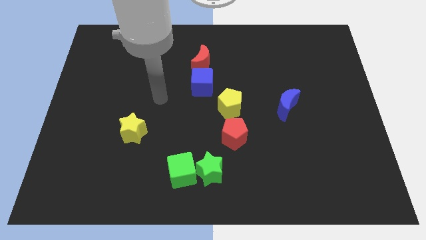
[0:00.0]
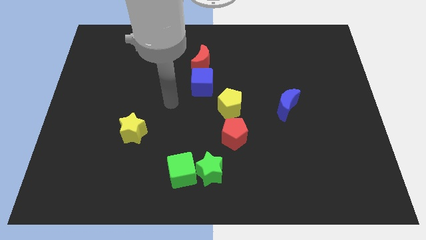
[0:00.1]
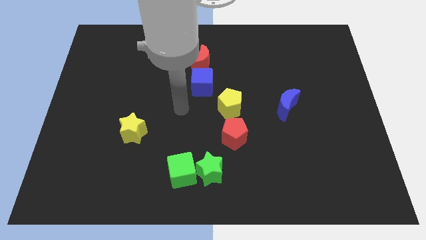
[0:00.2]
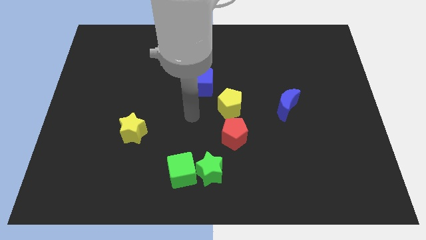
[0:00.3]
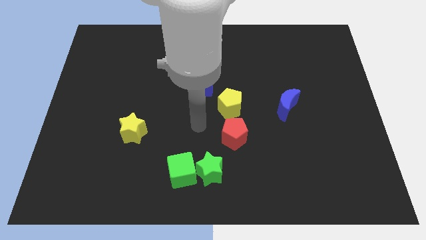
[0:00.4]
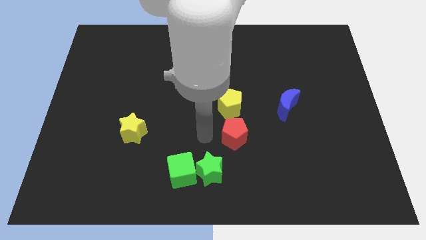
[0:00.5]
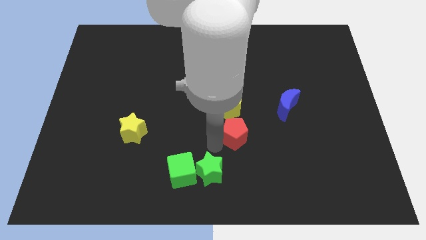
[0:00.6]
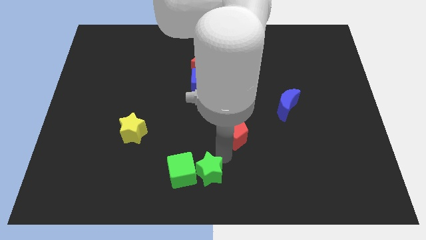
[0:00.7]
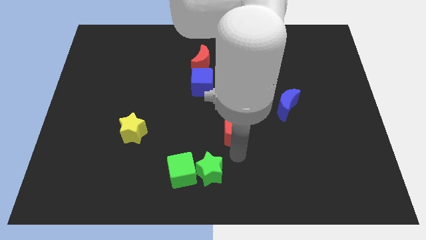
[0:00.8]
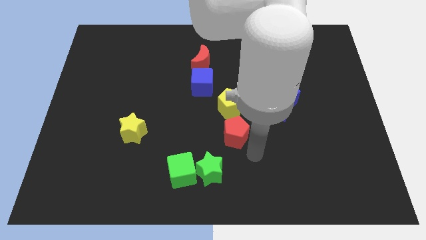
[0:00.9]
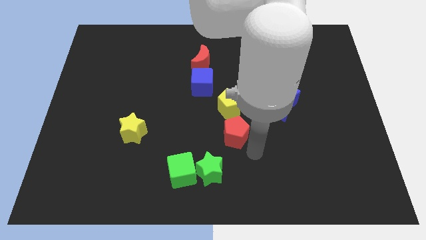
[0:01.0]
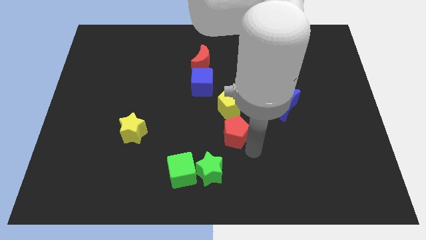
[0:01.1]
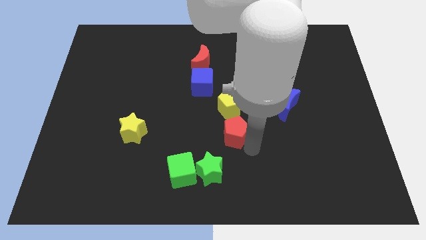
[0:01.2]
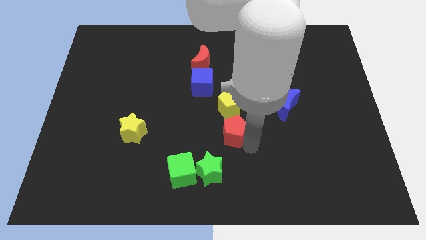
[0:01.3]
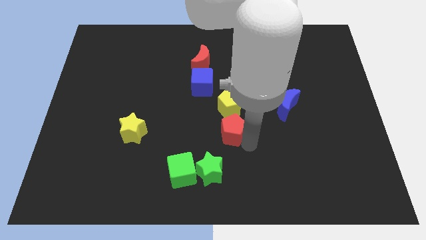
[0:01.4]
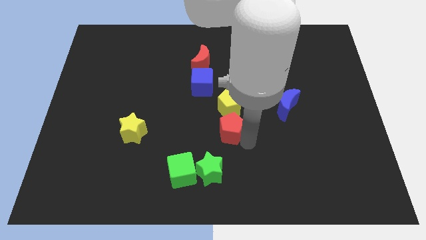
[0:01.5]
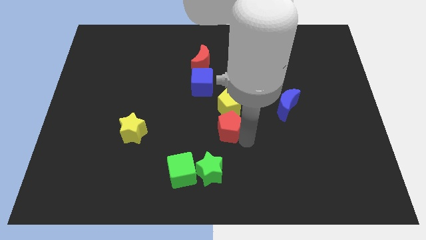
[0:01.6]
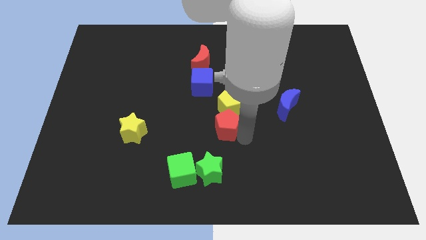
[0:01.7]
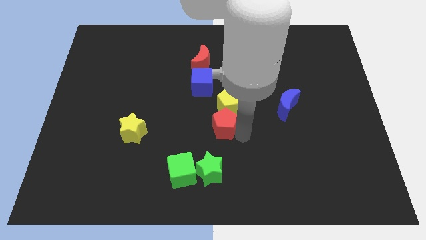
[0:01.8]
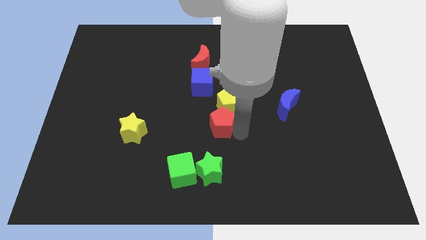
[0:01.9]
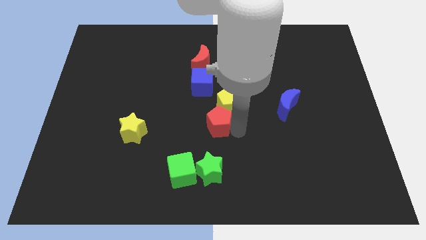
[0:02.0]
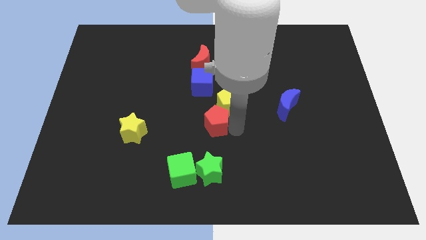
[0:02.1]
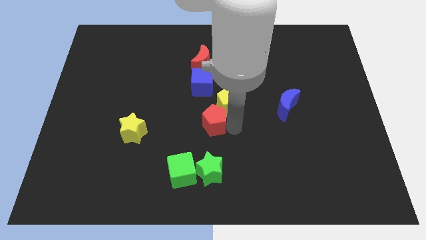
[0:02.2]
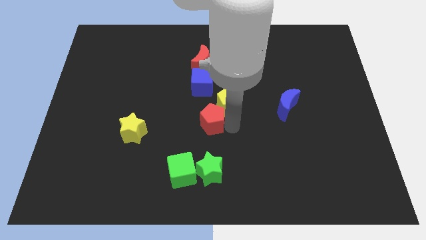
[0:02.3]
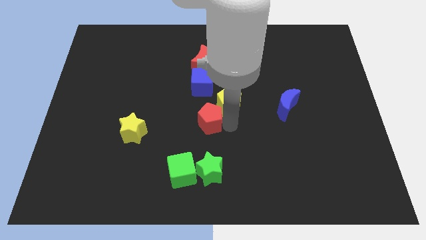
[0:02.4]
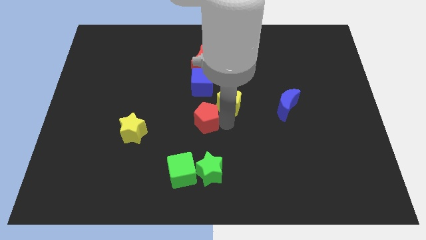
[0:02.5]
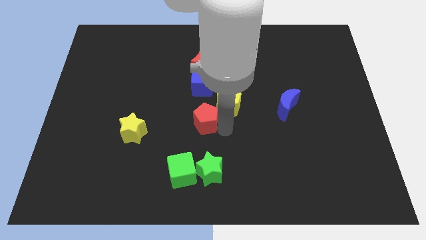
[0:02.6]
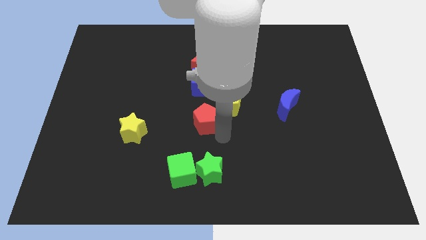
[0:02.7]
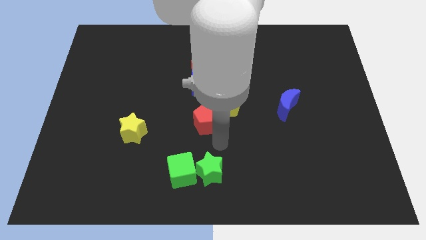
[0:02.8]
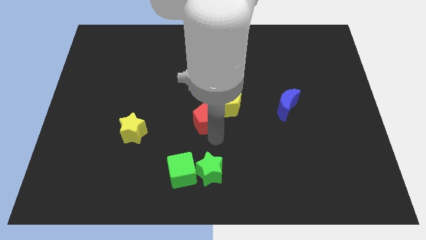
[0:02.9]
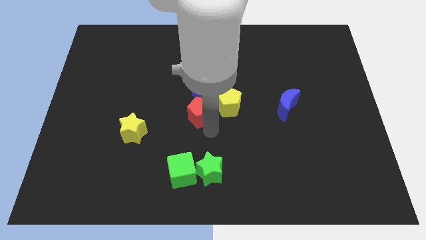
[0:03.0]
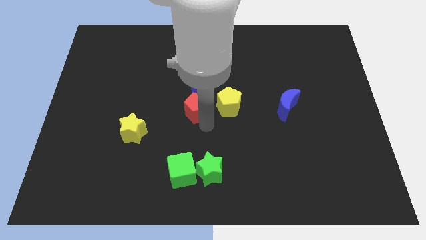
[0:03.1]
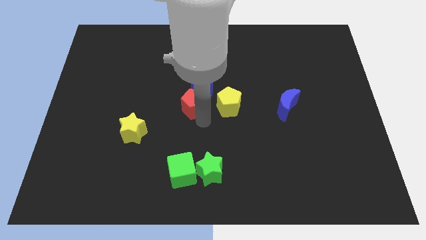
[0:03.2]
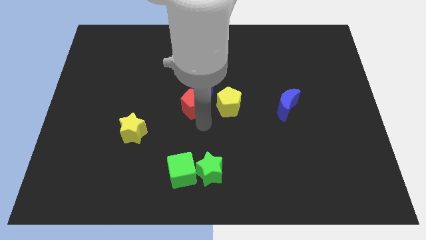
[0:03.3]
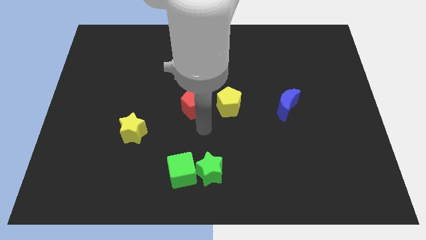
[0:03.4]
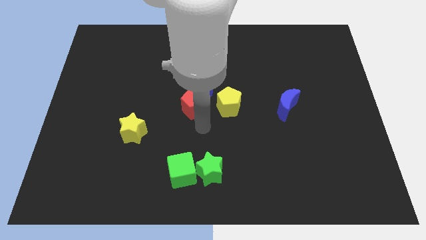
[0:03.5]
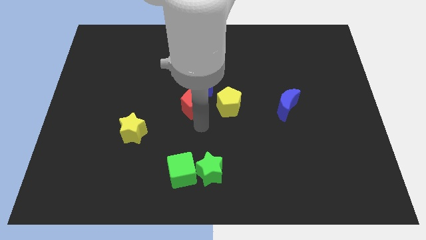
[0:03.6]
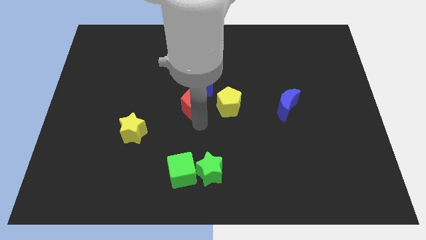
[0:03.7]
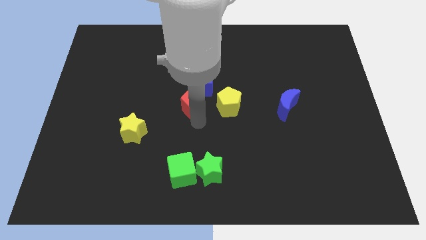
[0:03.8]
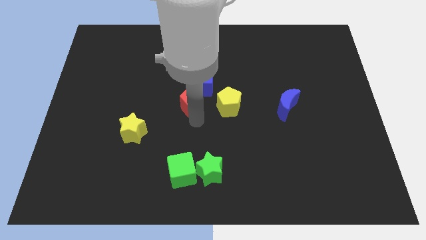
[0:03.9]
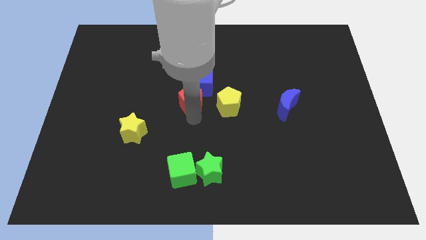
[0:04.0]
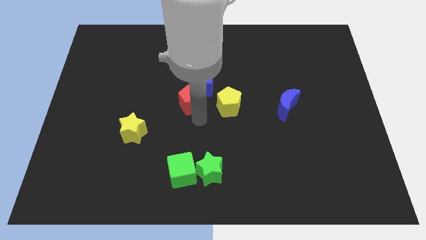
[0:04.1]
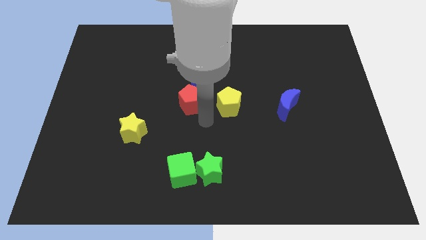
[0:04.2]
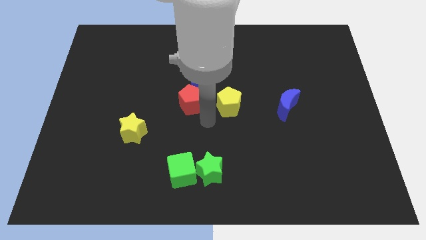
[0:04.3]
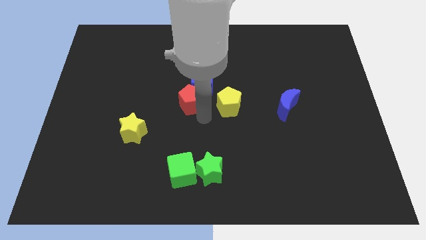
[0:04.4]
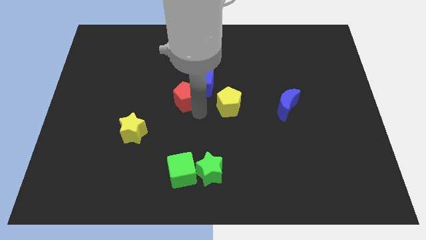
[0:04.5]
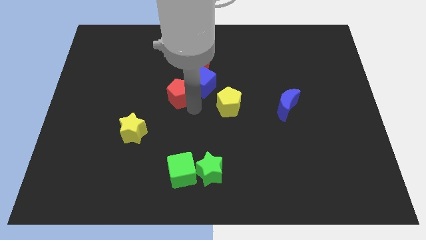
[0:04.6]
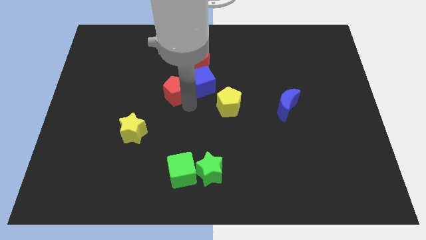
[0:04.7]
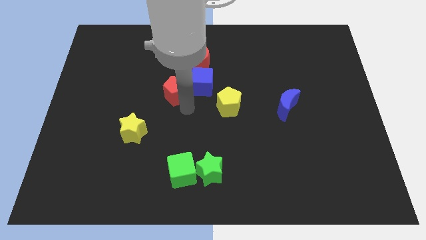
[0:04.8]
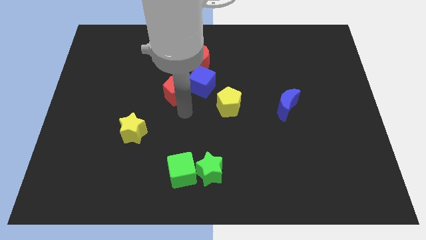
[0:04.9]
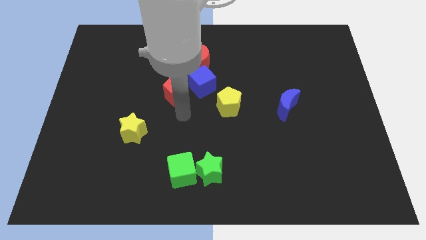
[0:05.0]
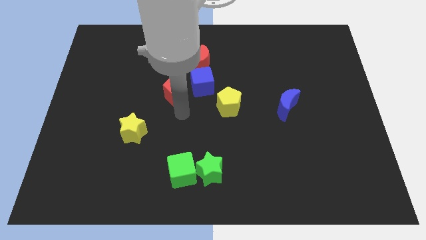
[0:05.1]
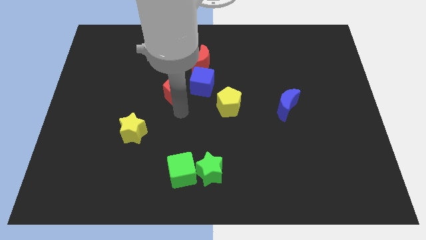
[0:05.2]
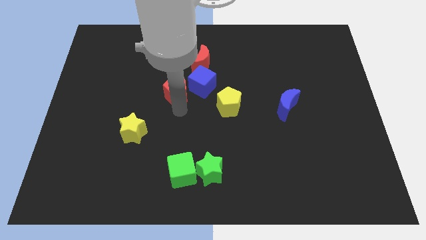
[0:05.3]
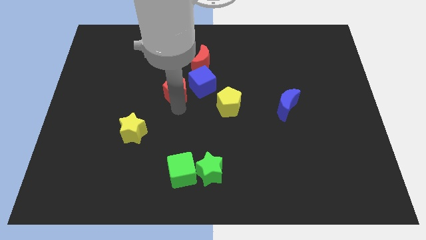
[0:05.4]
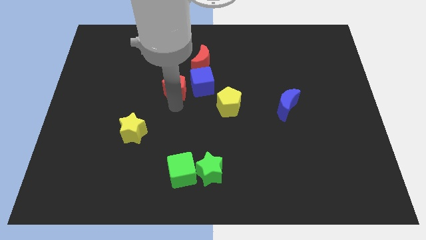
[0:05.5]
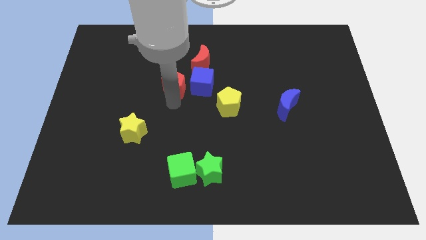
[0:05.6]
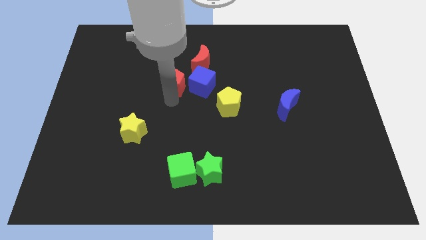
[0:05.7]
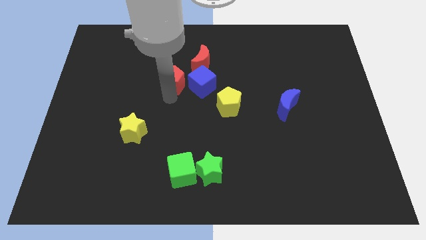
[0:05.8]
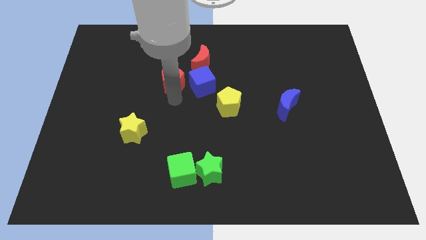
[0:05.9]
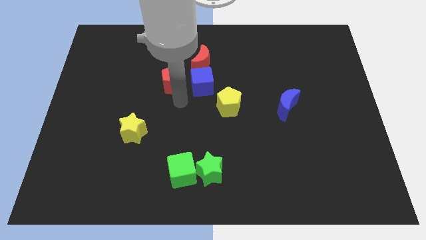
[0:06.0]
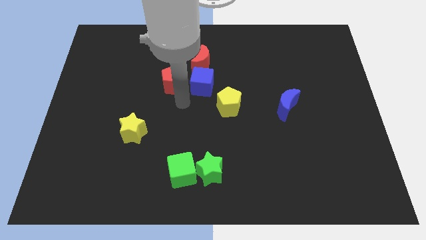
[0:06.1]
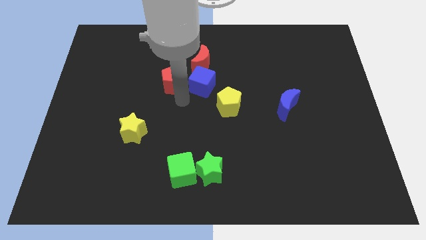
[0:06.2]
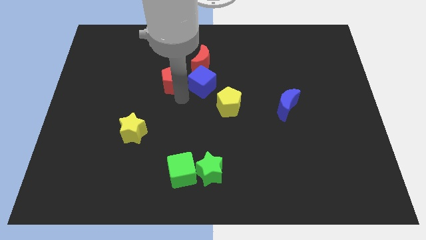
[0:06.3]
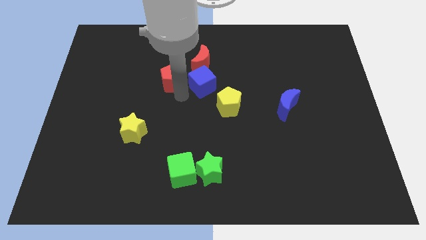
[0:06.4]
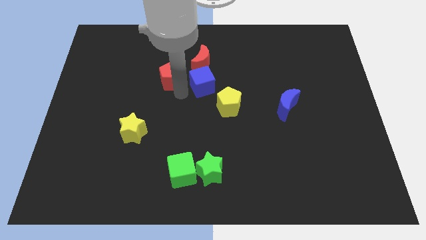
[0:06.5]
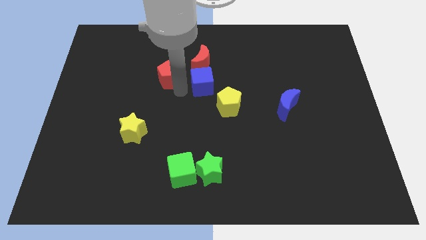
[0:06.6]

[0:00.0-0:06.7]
put the red pentagon to the left of the red moon
